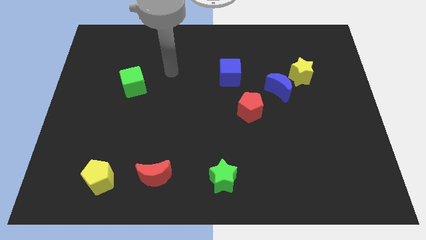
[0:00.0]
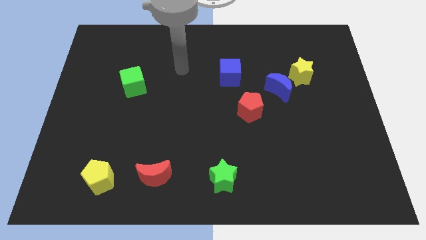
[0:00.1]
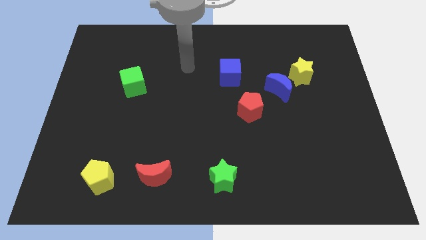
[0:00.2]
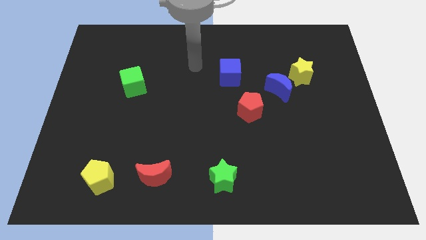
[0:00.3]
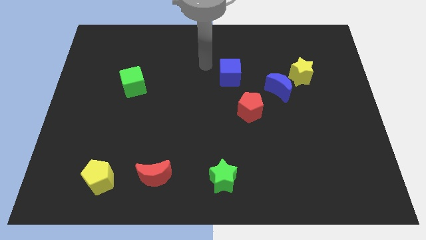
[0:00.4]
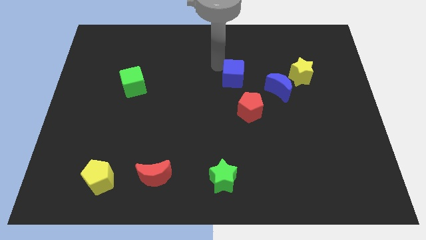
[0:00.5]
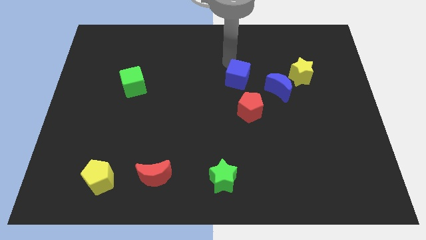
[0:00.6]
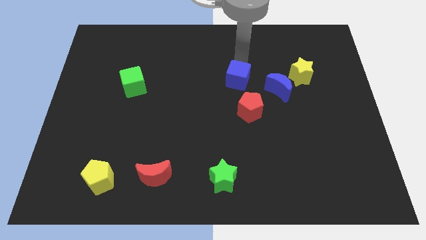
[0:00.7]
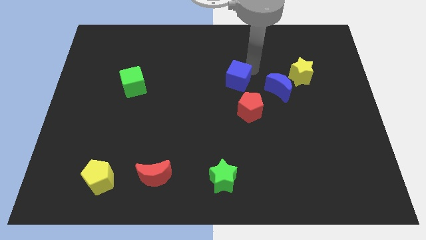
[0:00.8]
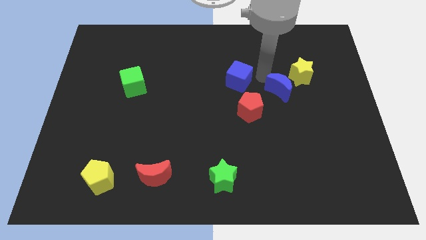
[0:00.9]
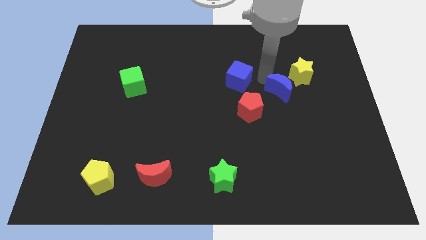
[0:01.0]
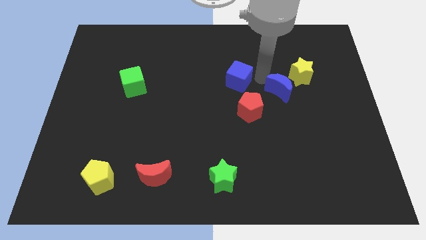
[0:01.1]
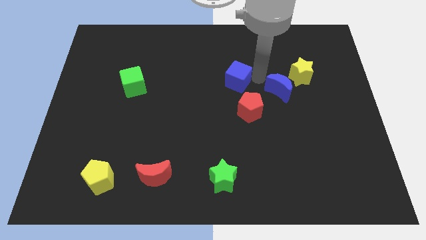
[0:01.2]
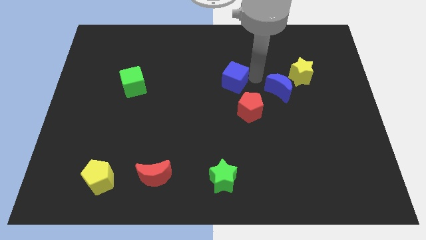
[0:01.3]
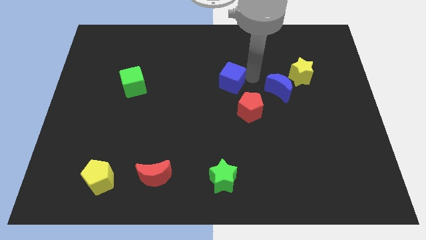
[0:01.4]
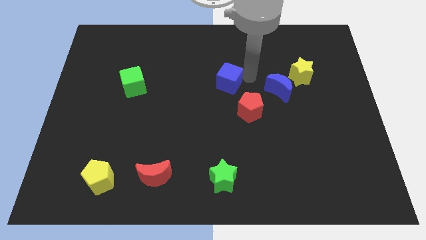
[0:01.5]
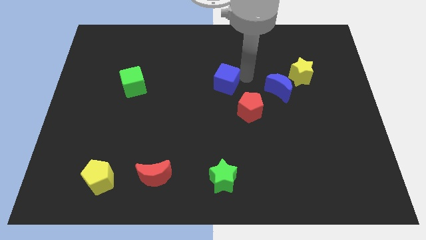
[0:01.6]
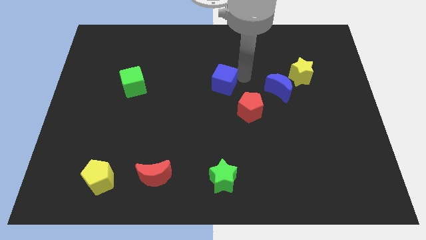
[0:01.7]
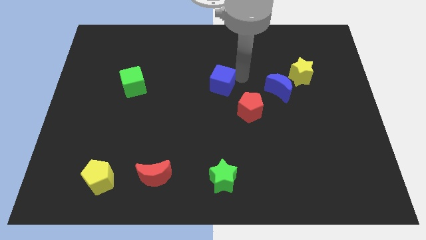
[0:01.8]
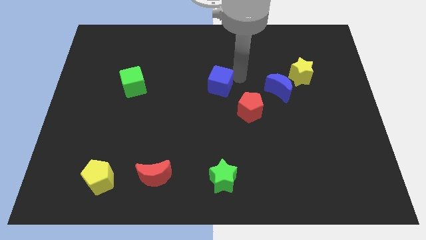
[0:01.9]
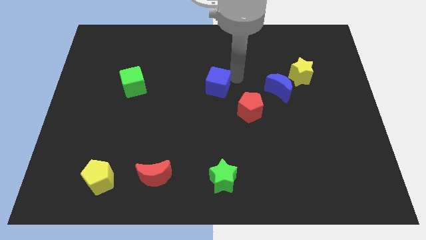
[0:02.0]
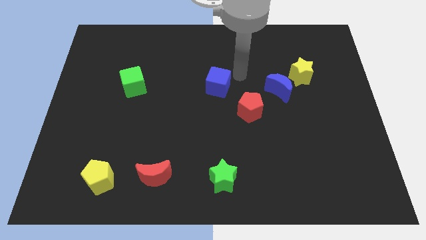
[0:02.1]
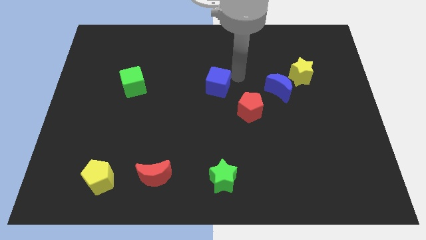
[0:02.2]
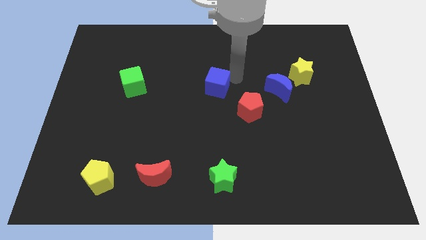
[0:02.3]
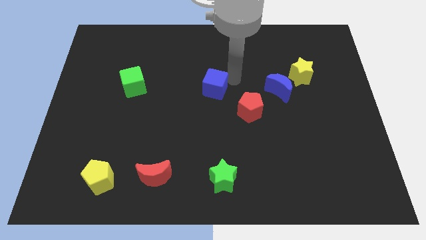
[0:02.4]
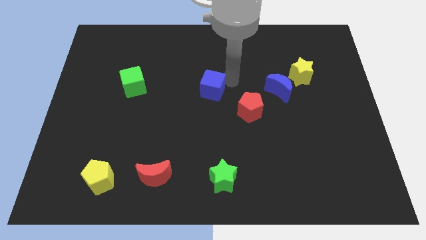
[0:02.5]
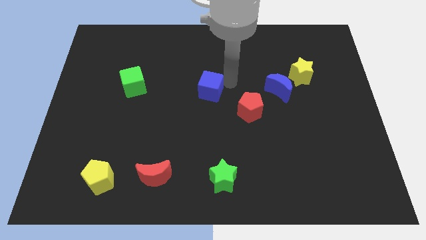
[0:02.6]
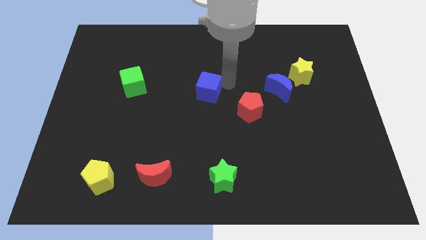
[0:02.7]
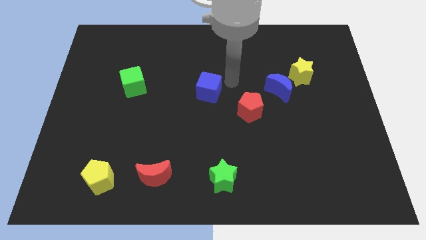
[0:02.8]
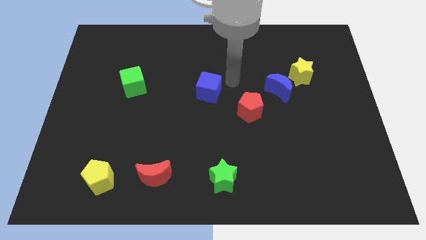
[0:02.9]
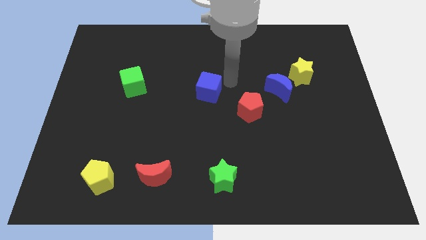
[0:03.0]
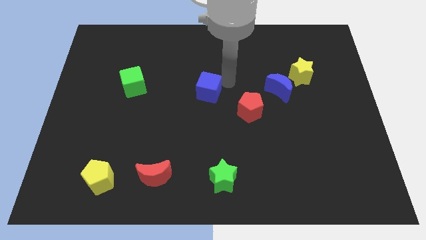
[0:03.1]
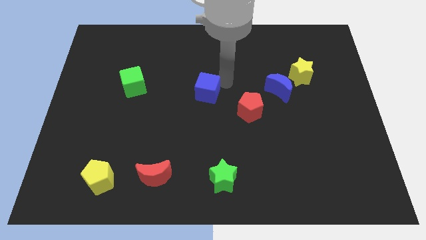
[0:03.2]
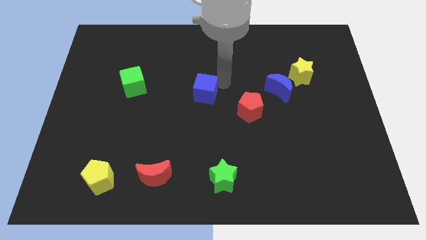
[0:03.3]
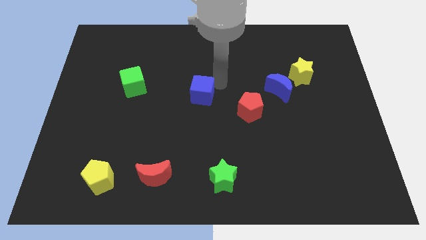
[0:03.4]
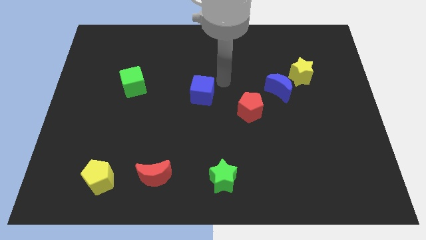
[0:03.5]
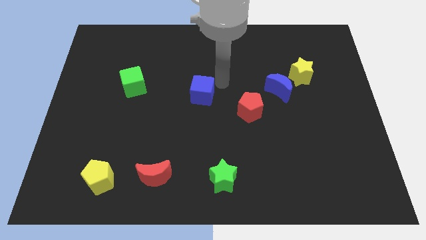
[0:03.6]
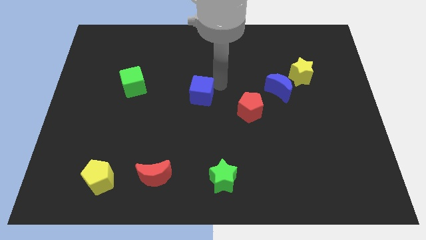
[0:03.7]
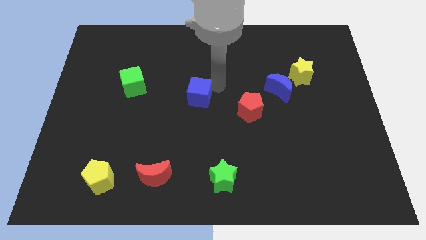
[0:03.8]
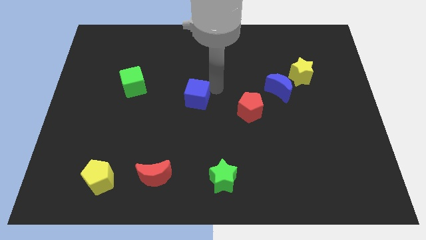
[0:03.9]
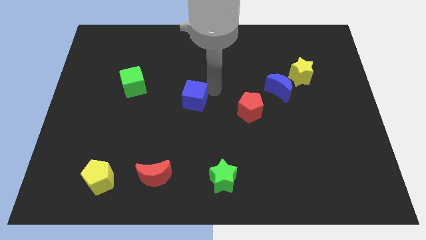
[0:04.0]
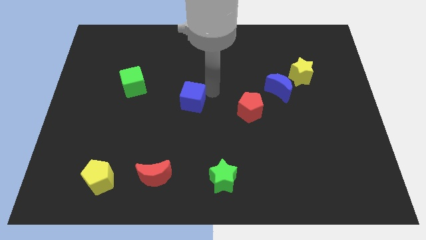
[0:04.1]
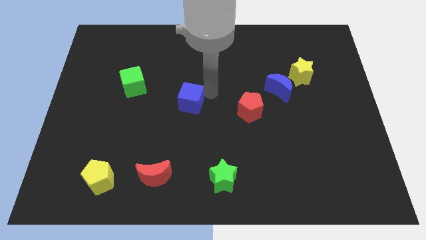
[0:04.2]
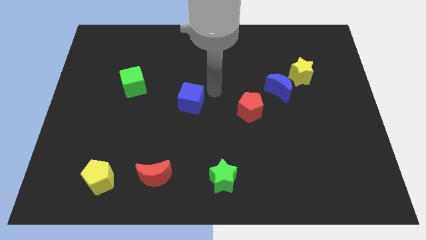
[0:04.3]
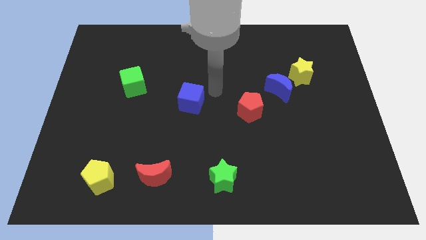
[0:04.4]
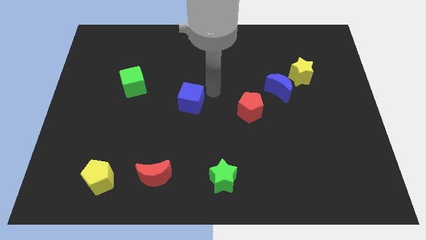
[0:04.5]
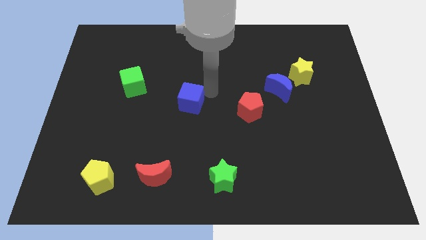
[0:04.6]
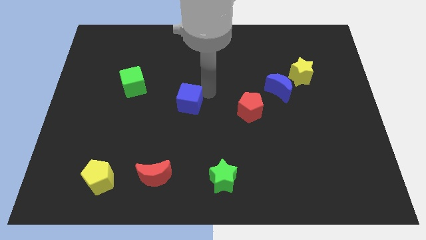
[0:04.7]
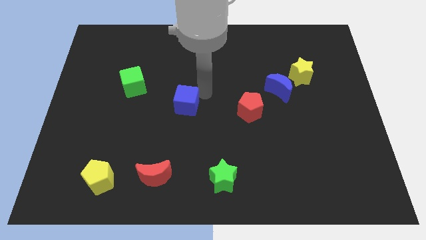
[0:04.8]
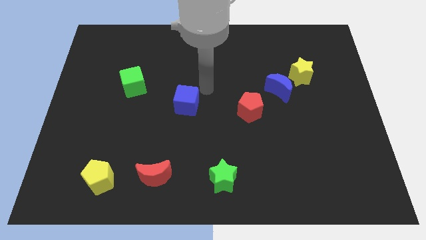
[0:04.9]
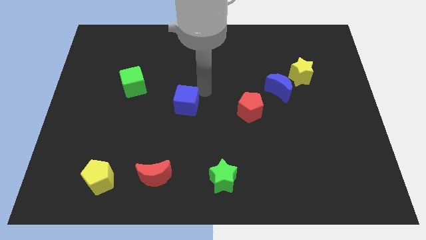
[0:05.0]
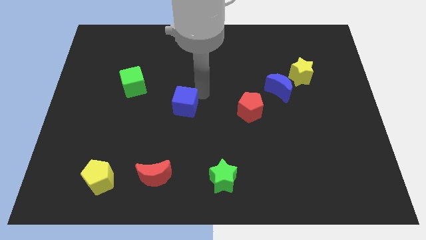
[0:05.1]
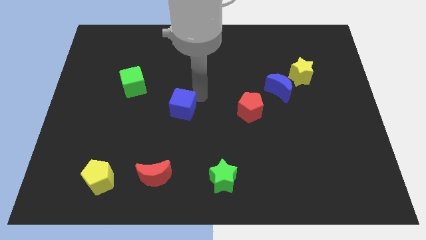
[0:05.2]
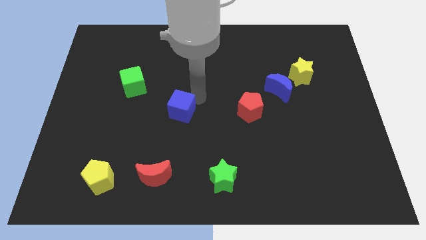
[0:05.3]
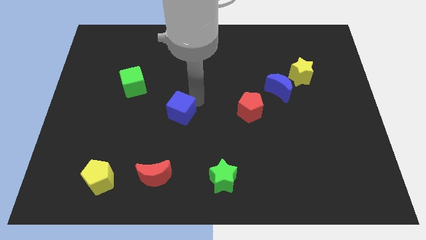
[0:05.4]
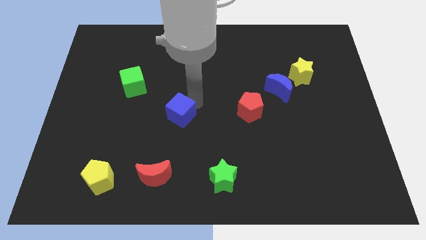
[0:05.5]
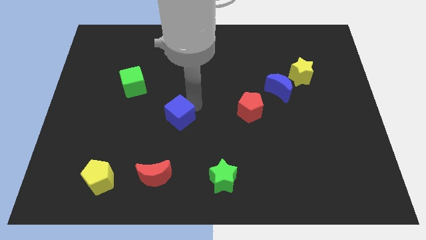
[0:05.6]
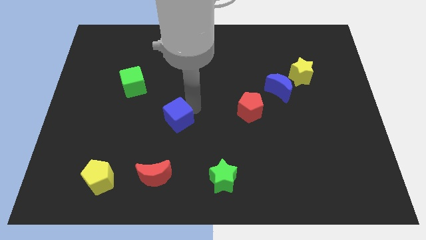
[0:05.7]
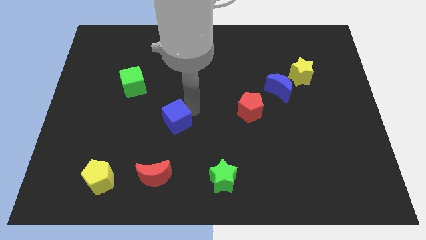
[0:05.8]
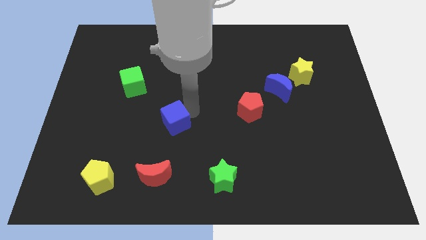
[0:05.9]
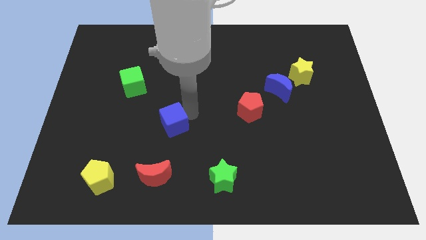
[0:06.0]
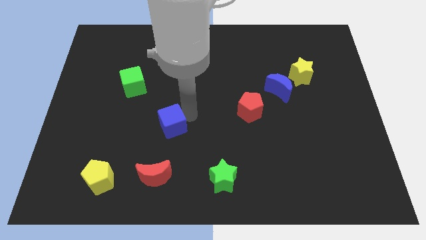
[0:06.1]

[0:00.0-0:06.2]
slide the blue cube downwards and to the left diagonally

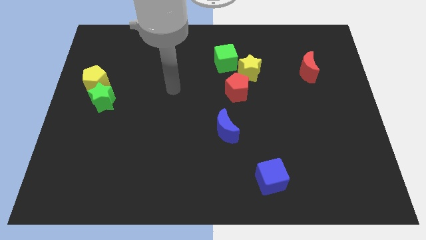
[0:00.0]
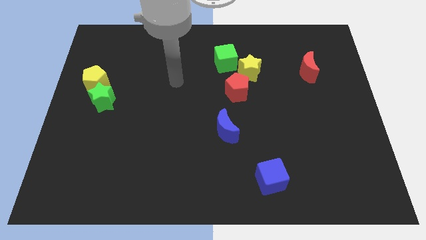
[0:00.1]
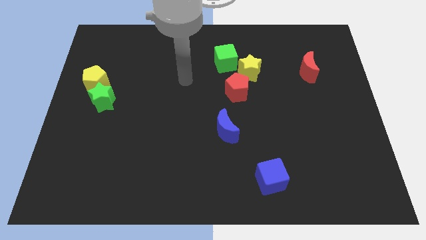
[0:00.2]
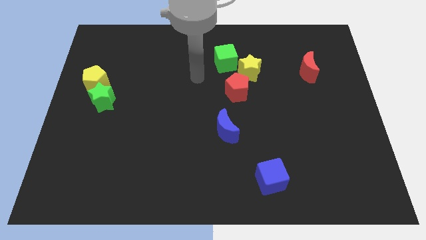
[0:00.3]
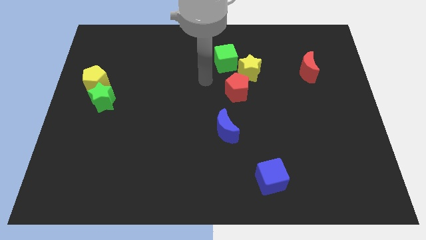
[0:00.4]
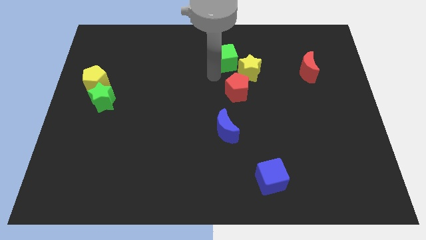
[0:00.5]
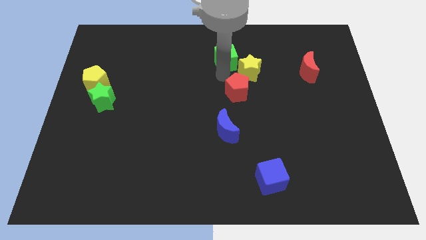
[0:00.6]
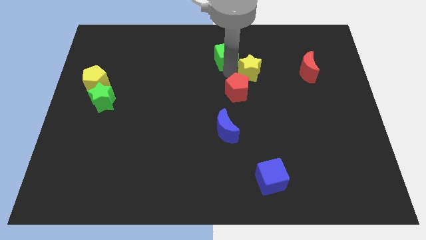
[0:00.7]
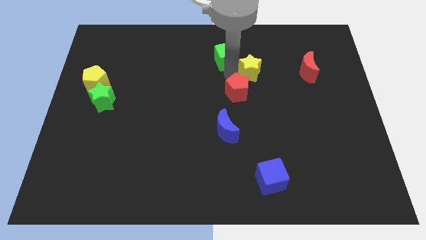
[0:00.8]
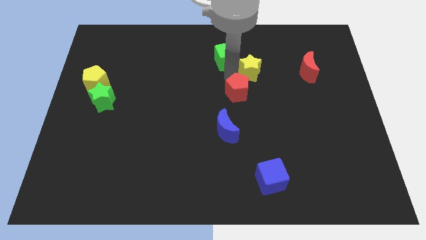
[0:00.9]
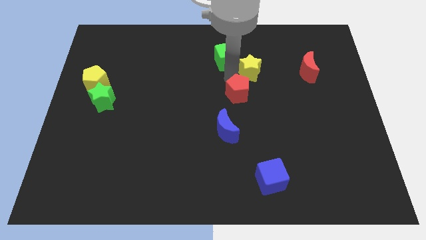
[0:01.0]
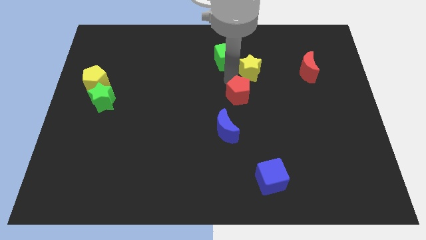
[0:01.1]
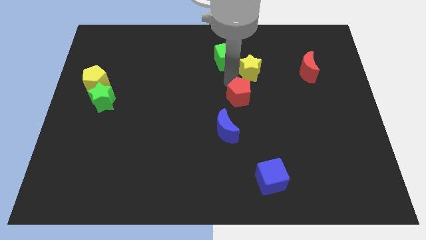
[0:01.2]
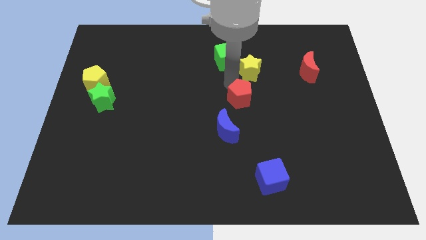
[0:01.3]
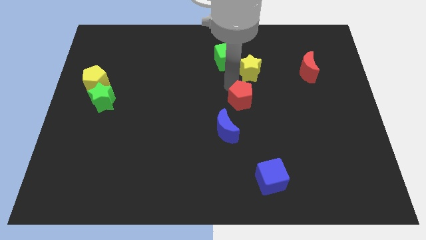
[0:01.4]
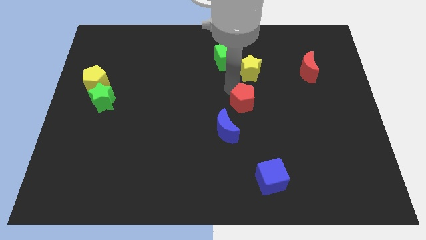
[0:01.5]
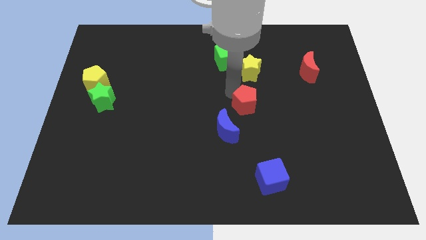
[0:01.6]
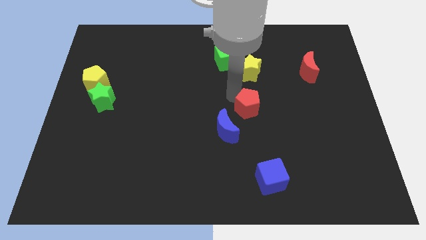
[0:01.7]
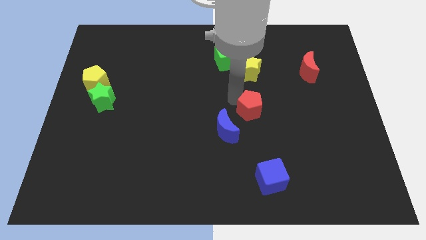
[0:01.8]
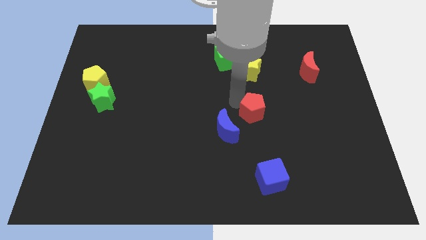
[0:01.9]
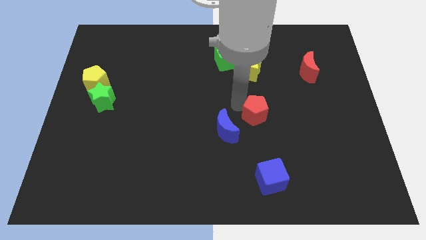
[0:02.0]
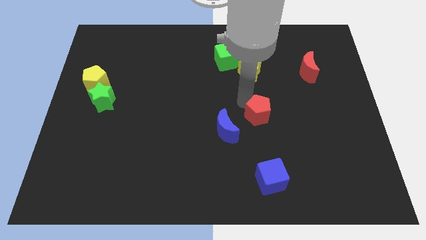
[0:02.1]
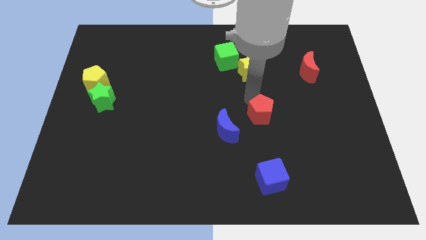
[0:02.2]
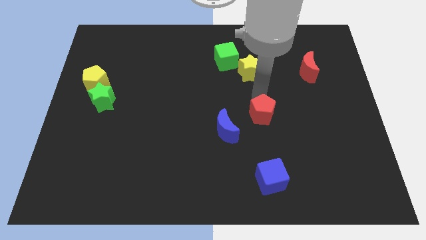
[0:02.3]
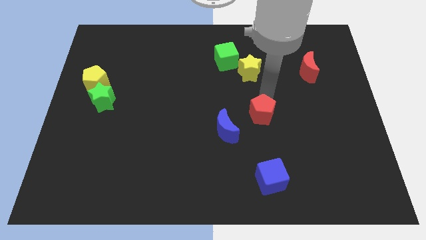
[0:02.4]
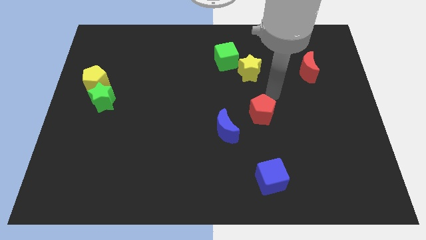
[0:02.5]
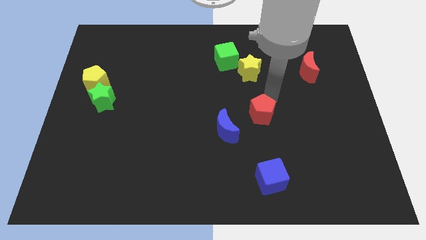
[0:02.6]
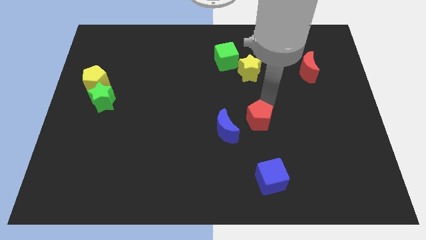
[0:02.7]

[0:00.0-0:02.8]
slightly move the red pentagon downwards
